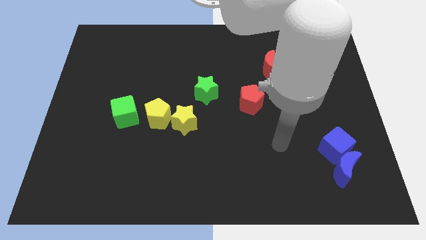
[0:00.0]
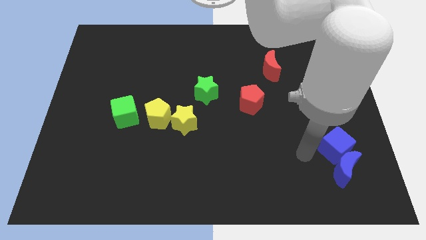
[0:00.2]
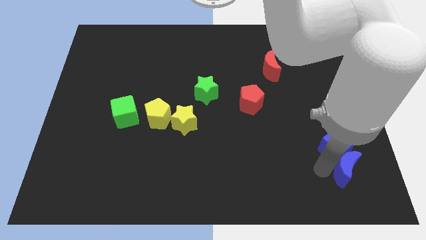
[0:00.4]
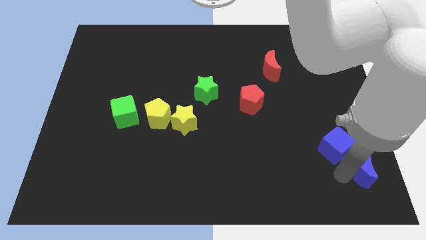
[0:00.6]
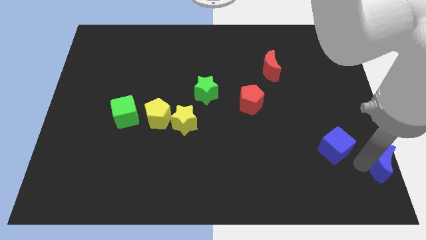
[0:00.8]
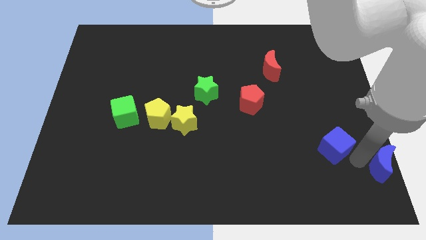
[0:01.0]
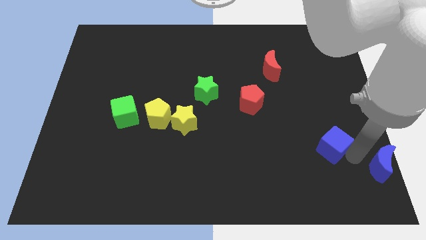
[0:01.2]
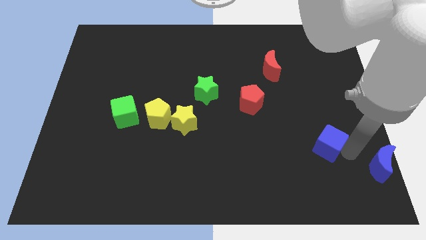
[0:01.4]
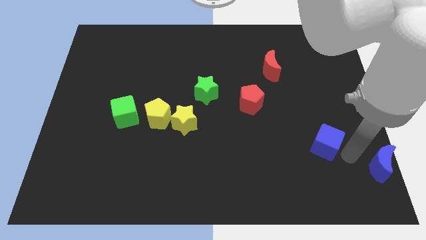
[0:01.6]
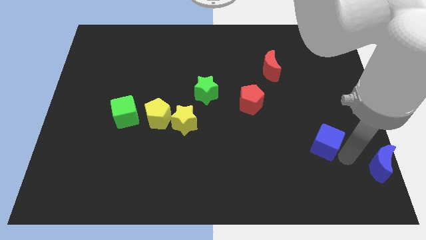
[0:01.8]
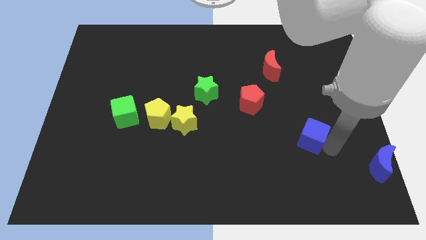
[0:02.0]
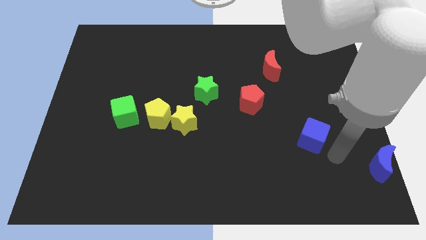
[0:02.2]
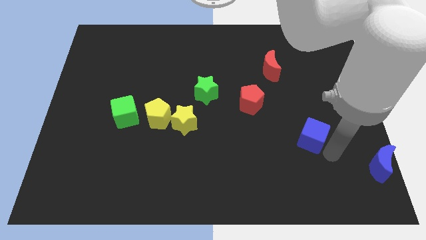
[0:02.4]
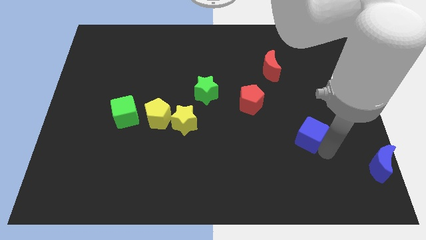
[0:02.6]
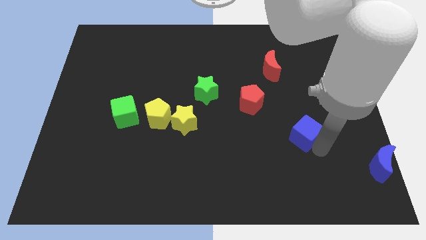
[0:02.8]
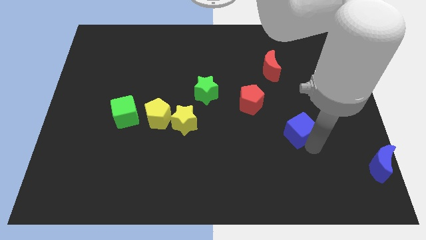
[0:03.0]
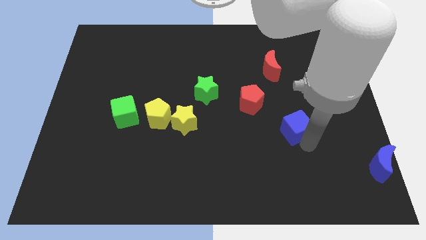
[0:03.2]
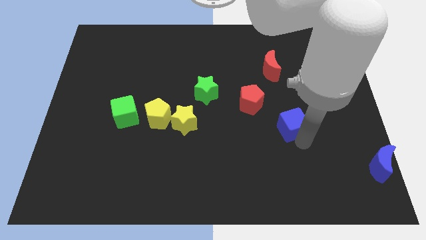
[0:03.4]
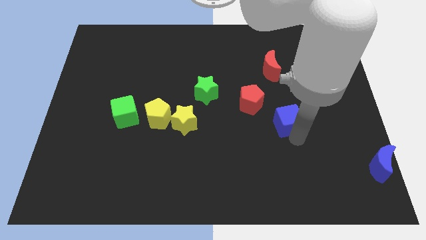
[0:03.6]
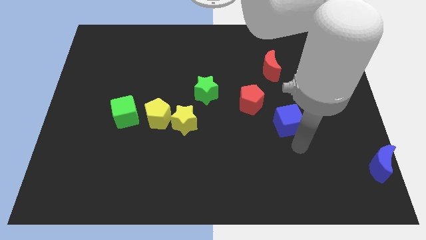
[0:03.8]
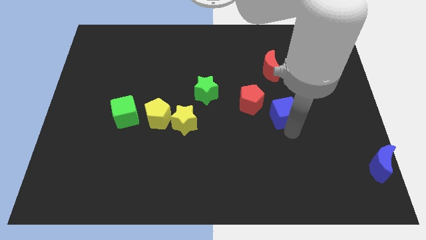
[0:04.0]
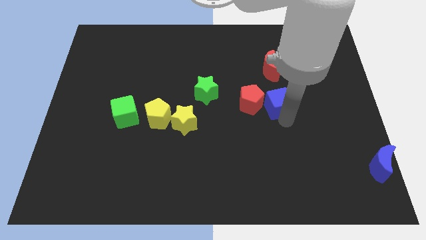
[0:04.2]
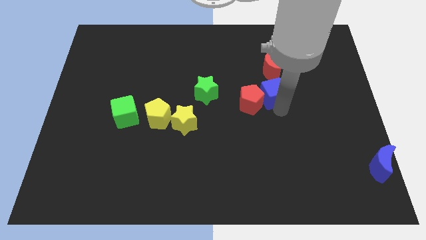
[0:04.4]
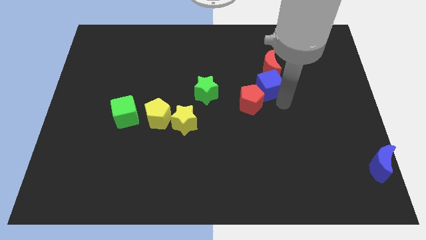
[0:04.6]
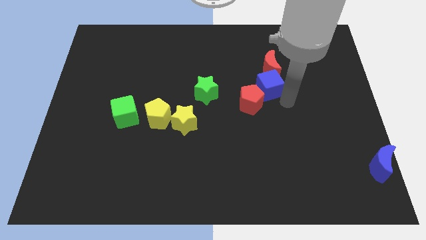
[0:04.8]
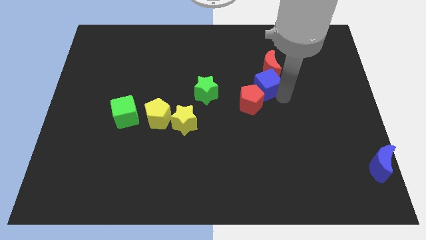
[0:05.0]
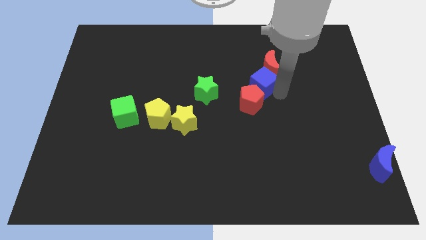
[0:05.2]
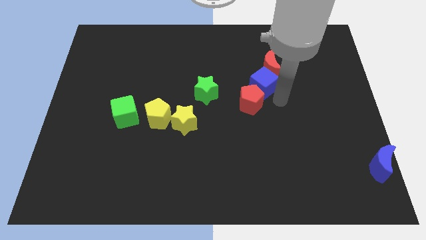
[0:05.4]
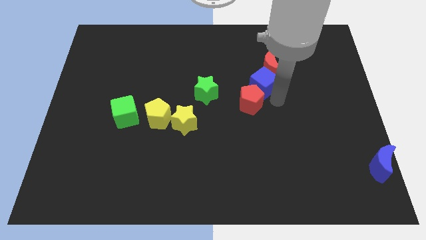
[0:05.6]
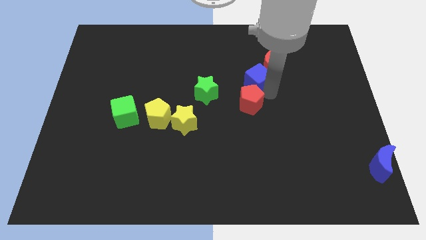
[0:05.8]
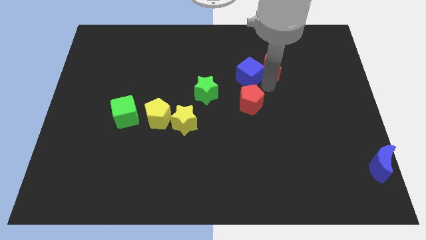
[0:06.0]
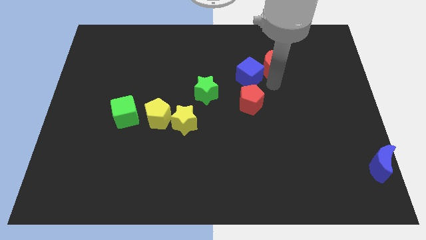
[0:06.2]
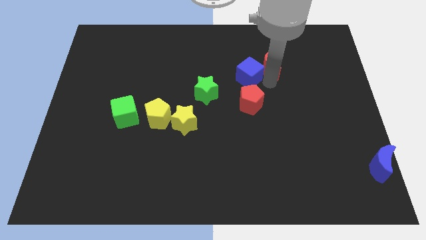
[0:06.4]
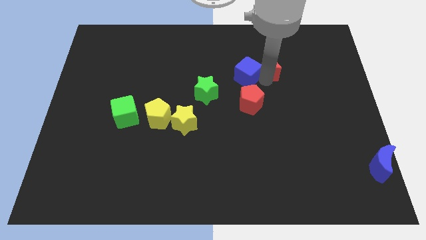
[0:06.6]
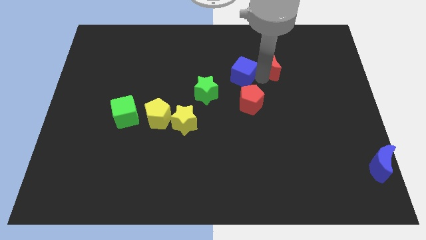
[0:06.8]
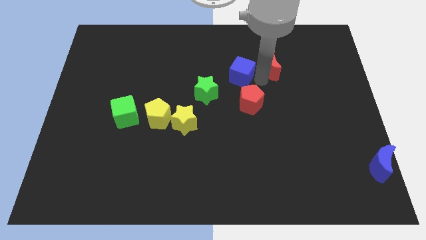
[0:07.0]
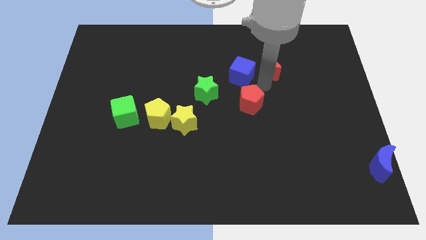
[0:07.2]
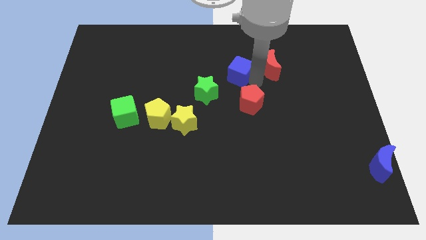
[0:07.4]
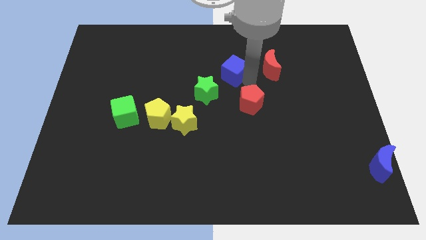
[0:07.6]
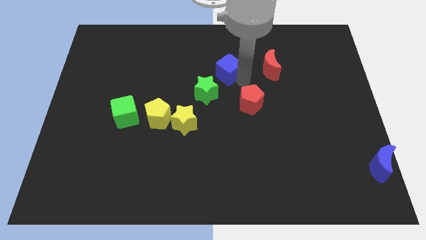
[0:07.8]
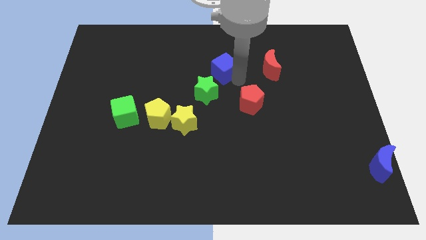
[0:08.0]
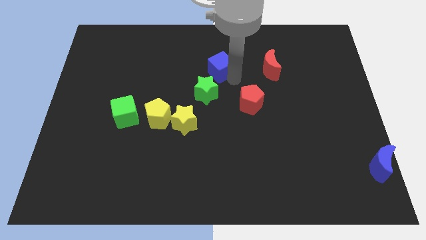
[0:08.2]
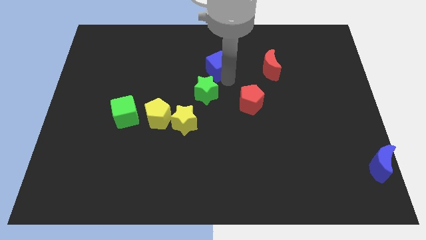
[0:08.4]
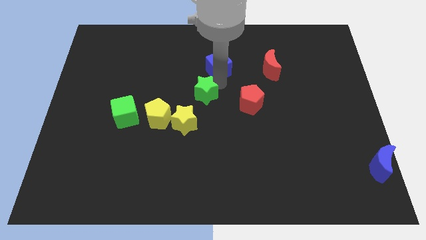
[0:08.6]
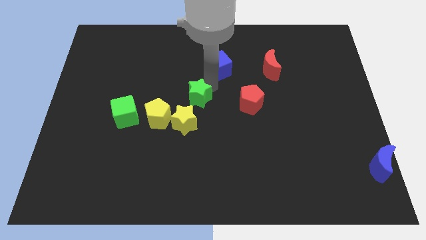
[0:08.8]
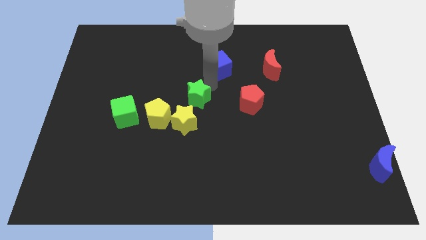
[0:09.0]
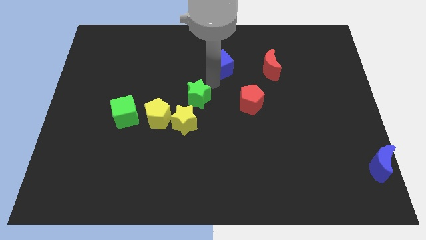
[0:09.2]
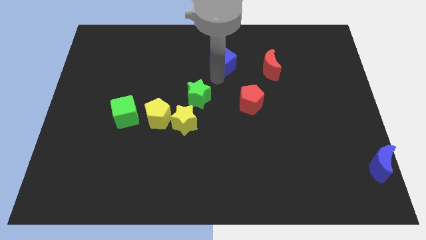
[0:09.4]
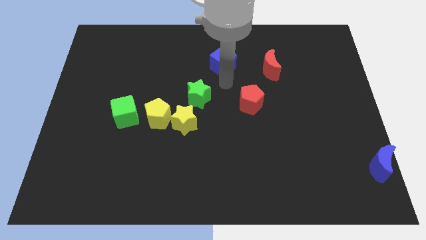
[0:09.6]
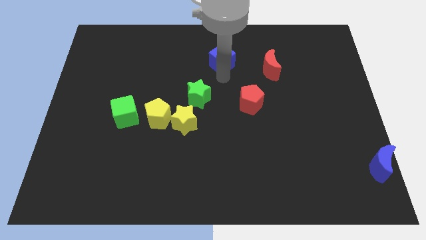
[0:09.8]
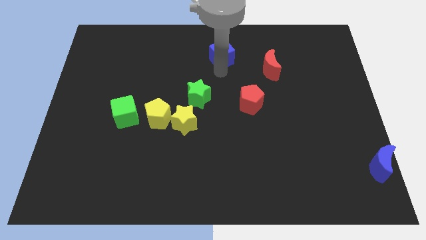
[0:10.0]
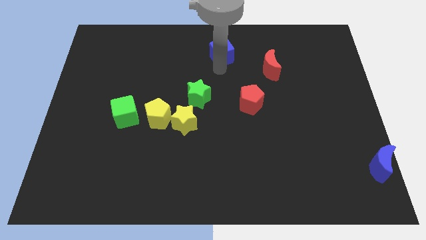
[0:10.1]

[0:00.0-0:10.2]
move the blue cube to the top

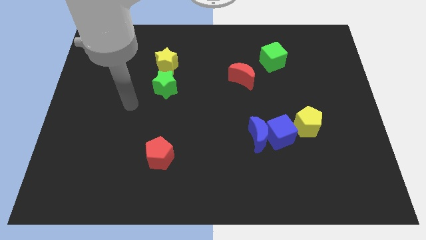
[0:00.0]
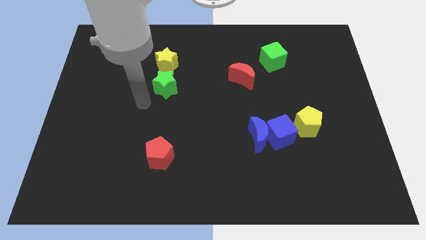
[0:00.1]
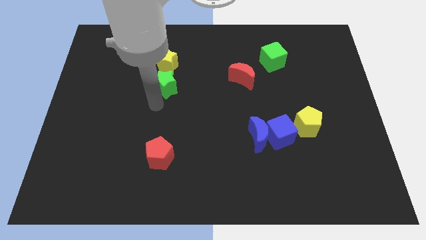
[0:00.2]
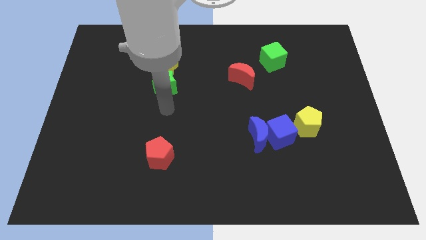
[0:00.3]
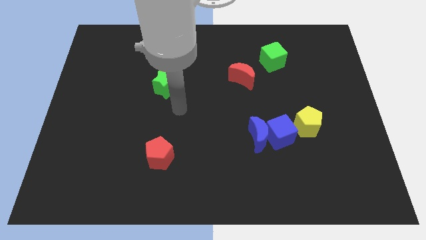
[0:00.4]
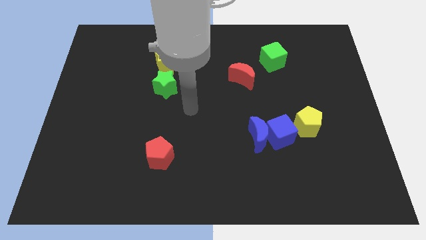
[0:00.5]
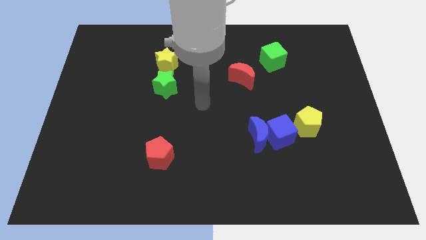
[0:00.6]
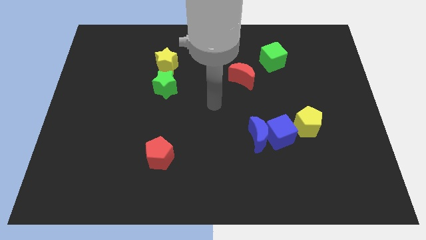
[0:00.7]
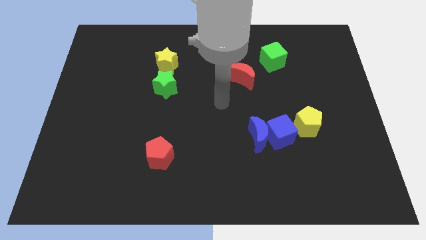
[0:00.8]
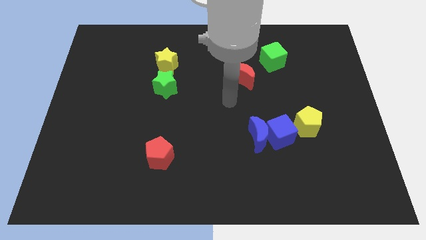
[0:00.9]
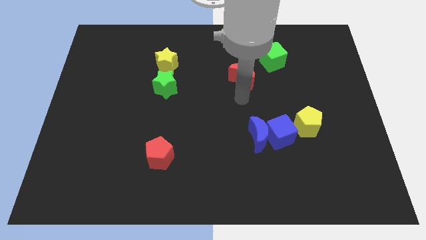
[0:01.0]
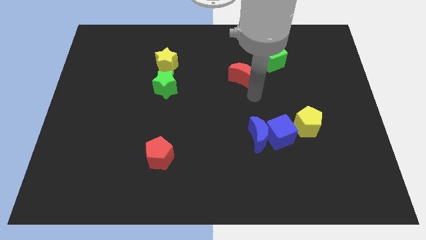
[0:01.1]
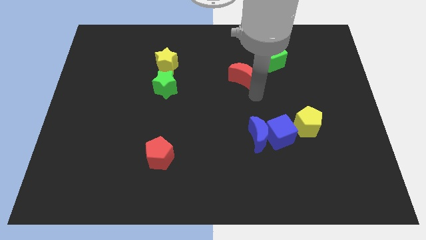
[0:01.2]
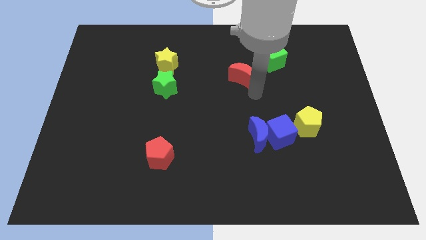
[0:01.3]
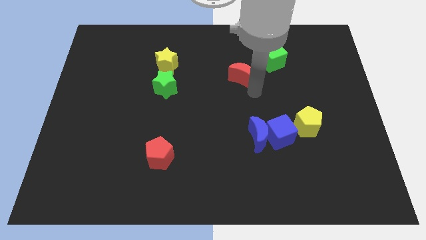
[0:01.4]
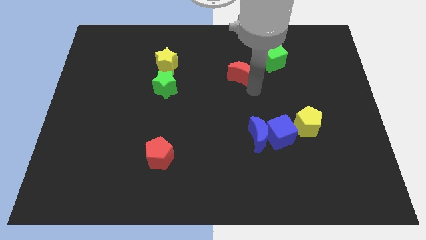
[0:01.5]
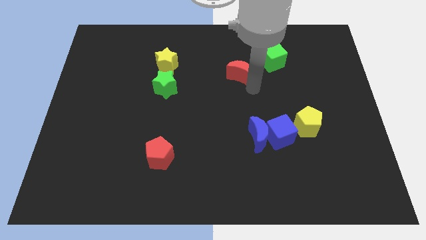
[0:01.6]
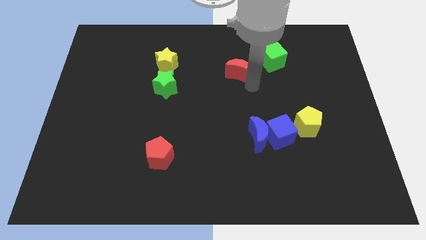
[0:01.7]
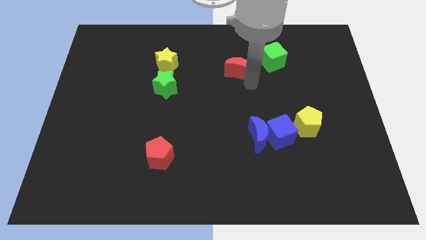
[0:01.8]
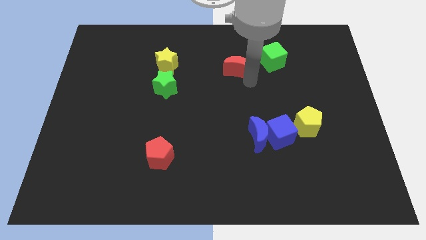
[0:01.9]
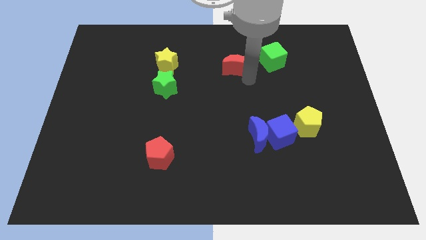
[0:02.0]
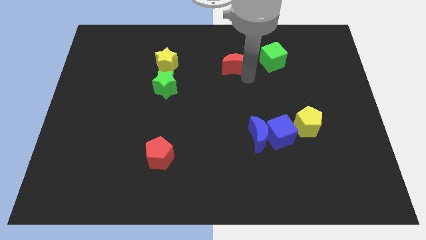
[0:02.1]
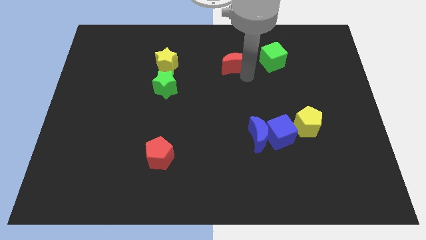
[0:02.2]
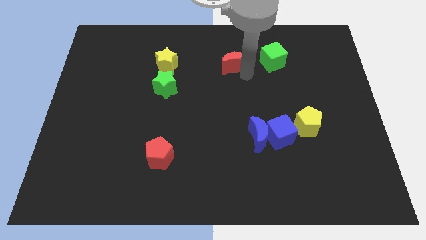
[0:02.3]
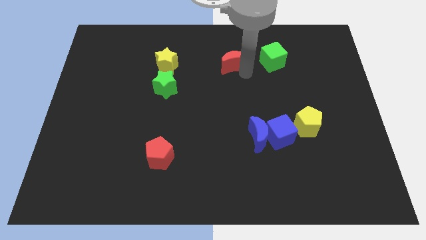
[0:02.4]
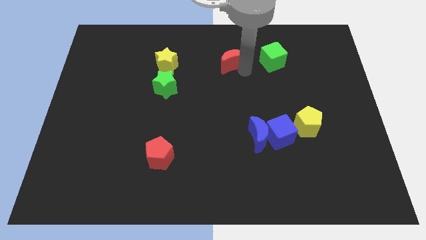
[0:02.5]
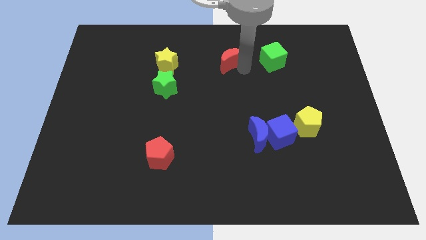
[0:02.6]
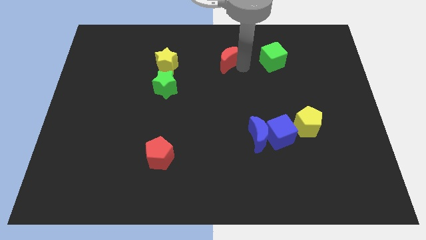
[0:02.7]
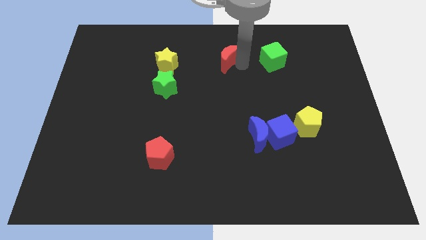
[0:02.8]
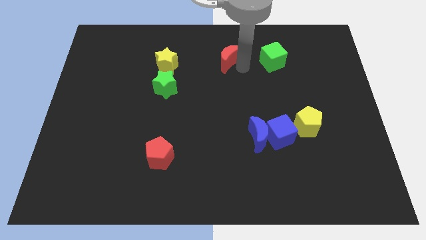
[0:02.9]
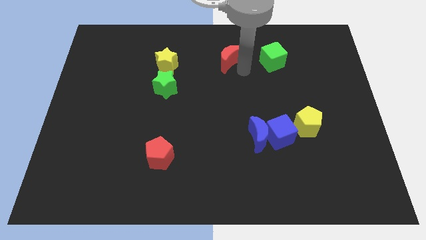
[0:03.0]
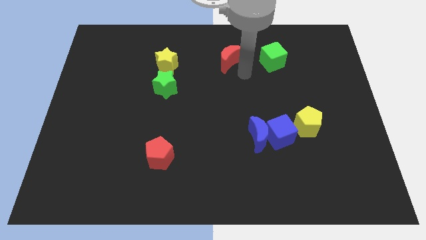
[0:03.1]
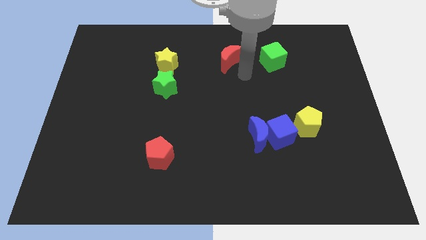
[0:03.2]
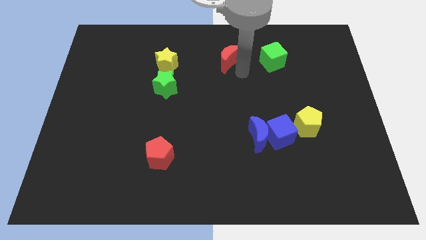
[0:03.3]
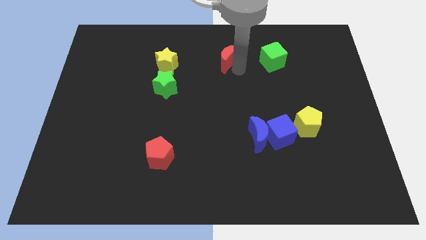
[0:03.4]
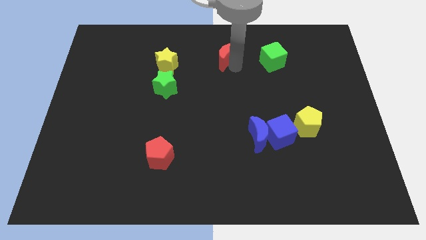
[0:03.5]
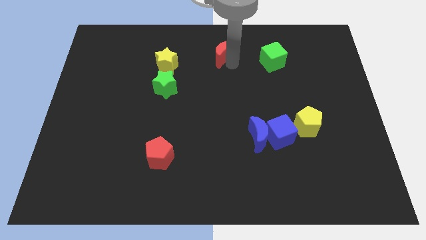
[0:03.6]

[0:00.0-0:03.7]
push the red moon to the top side
